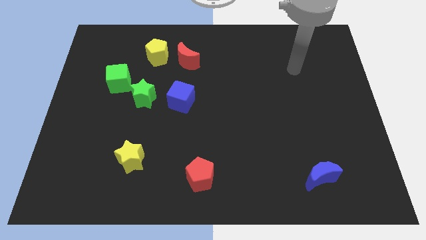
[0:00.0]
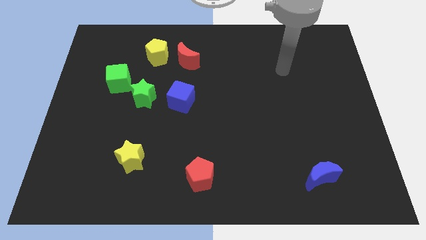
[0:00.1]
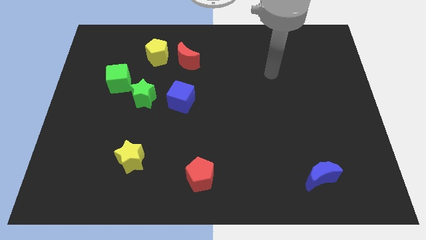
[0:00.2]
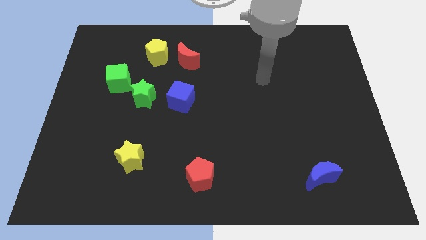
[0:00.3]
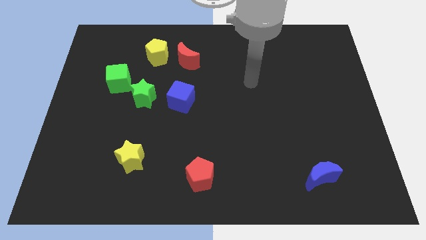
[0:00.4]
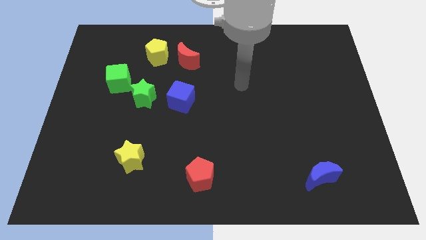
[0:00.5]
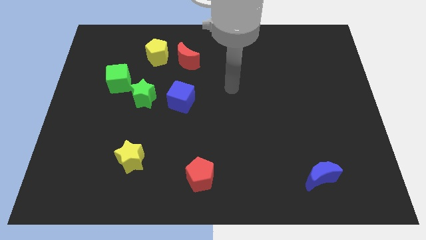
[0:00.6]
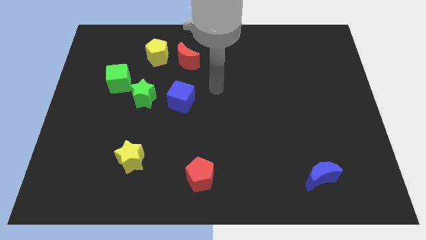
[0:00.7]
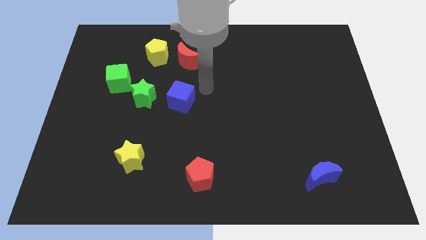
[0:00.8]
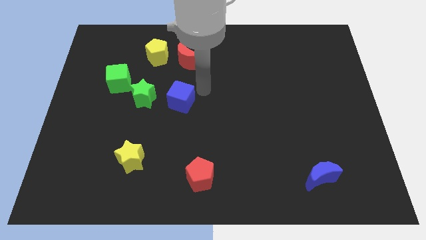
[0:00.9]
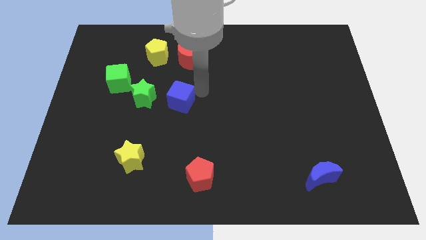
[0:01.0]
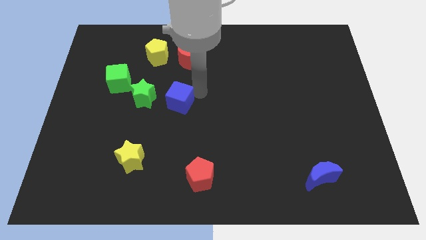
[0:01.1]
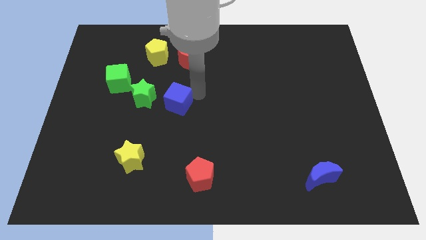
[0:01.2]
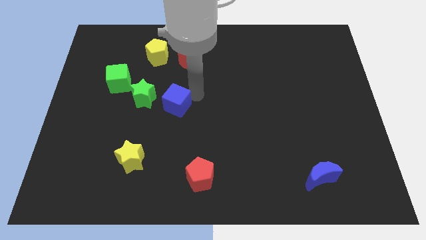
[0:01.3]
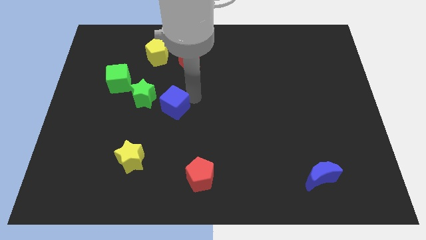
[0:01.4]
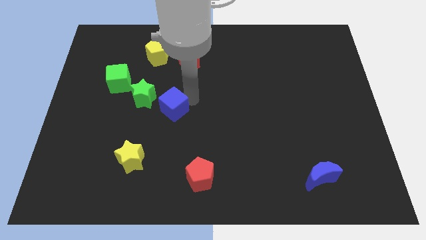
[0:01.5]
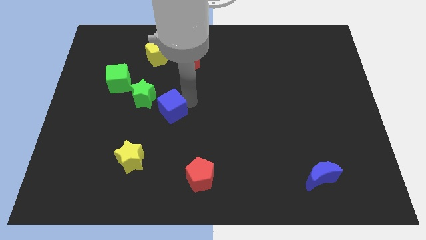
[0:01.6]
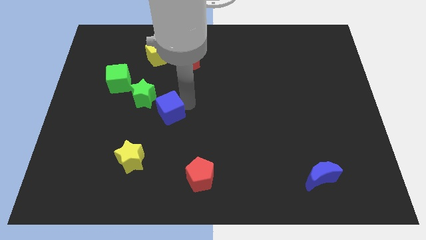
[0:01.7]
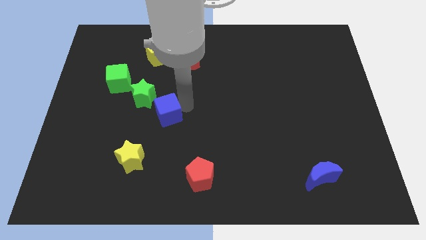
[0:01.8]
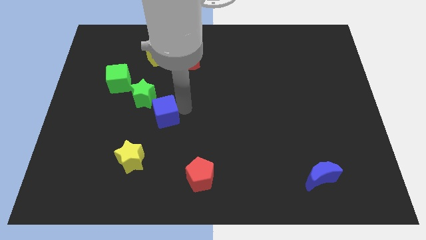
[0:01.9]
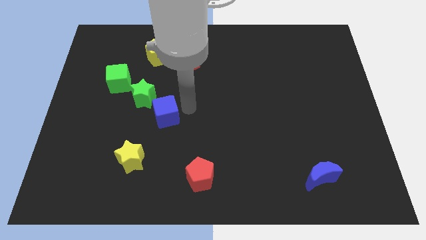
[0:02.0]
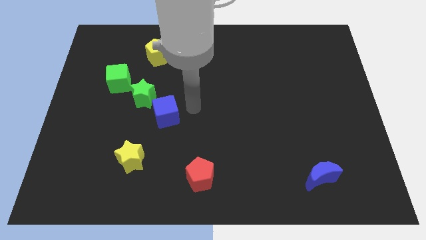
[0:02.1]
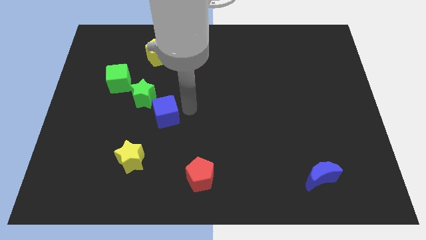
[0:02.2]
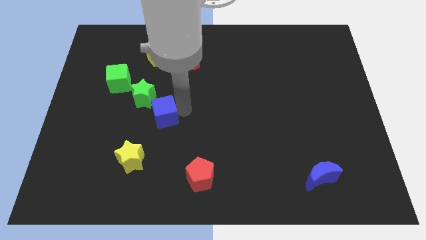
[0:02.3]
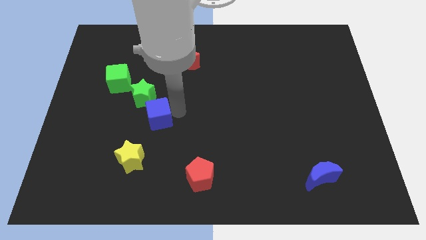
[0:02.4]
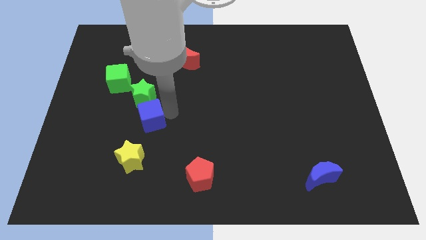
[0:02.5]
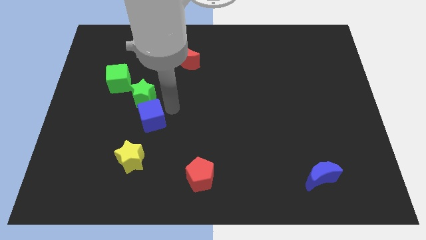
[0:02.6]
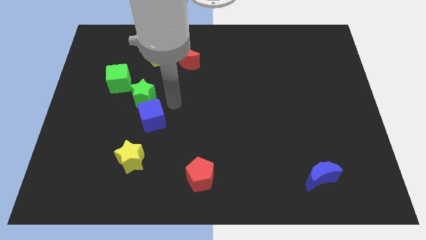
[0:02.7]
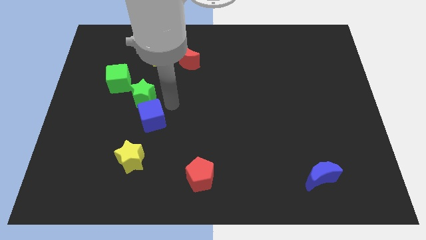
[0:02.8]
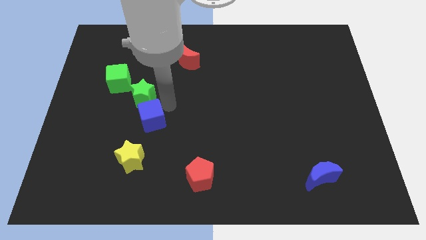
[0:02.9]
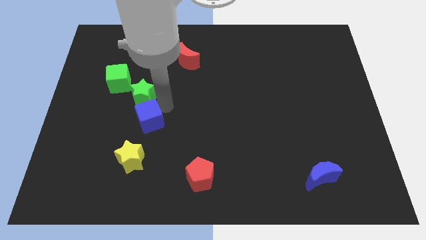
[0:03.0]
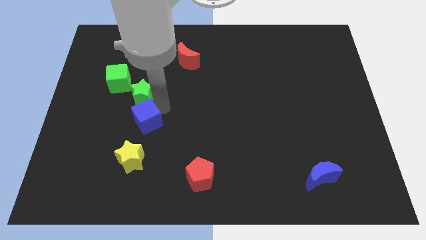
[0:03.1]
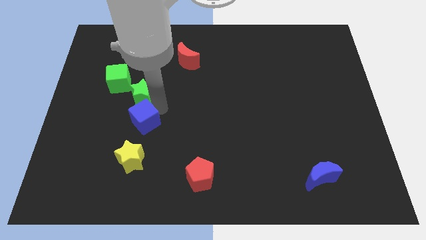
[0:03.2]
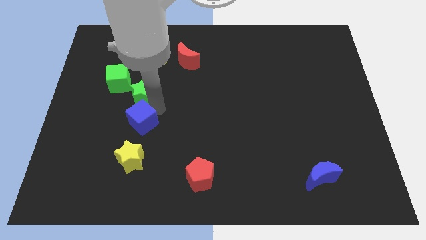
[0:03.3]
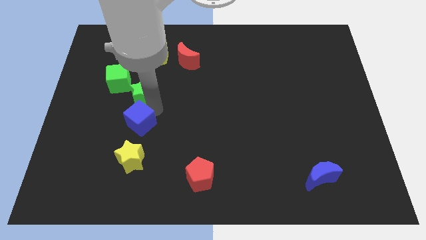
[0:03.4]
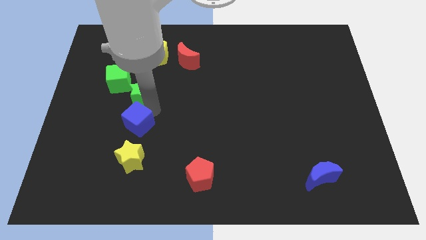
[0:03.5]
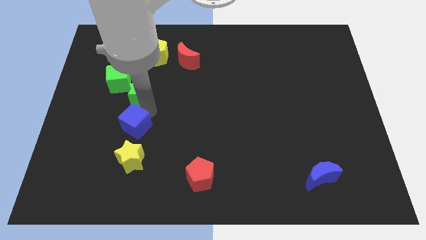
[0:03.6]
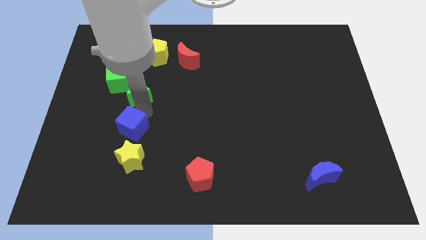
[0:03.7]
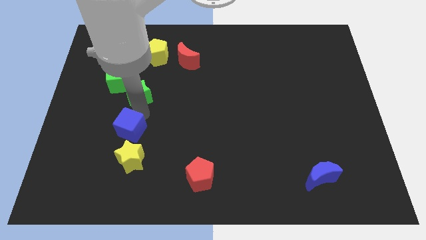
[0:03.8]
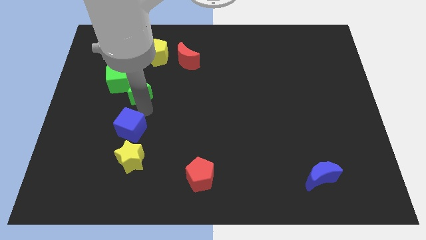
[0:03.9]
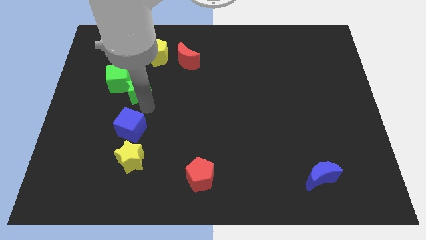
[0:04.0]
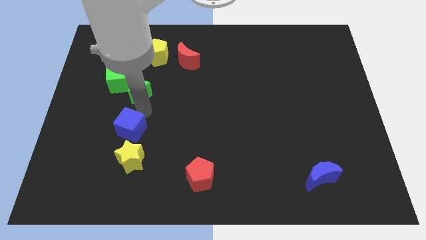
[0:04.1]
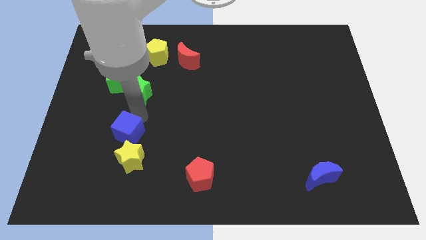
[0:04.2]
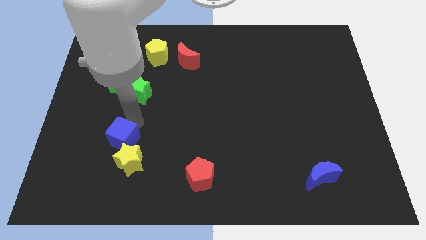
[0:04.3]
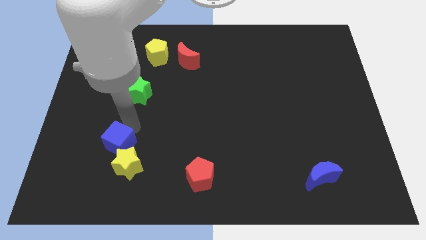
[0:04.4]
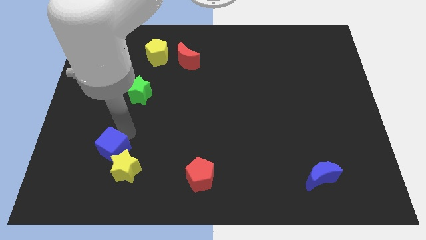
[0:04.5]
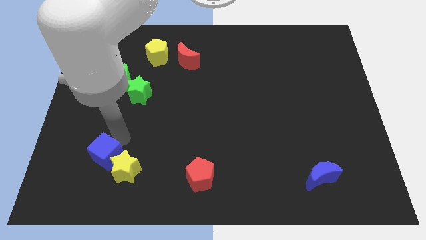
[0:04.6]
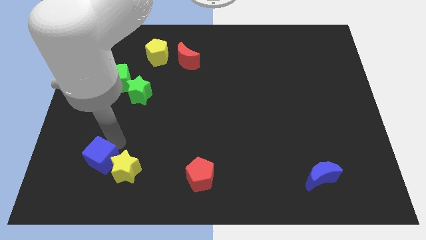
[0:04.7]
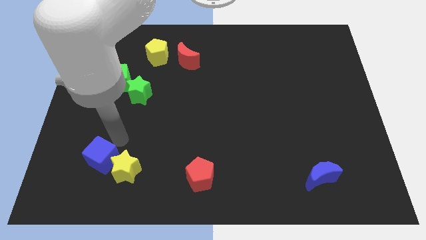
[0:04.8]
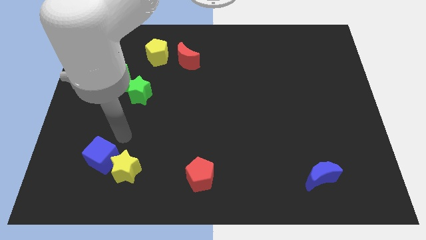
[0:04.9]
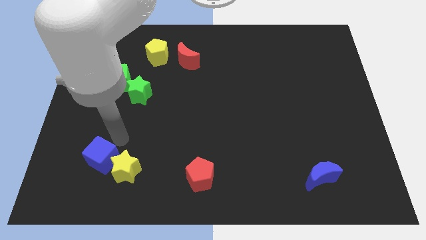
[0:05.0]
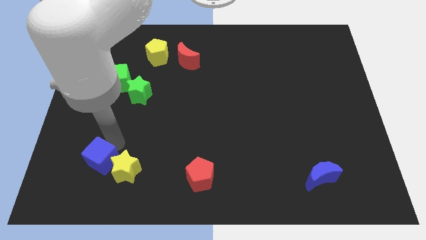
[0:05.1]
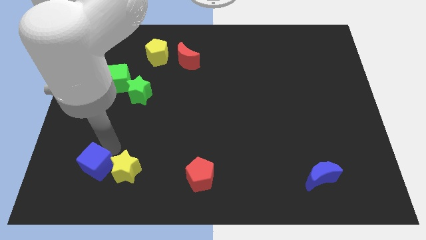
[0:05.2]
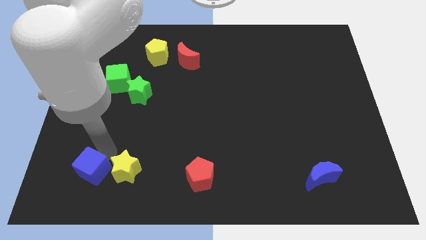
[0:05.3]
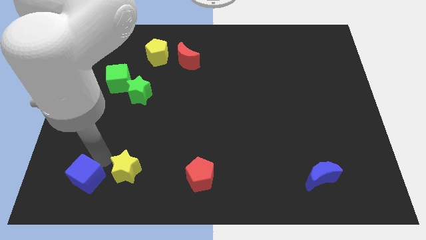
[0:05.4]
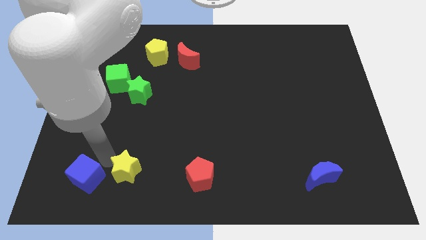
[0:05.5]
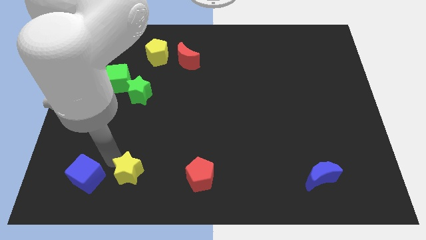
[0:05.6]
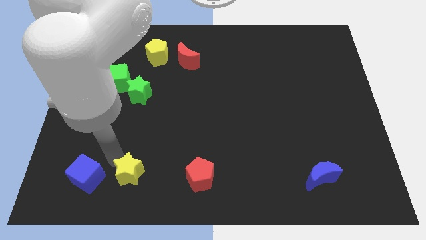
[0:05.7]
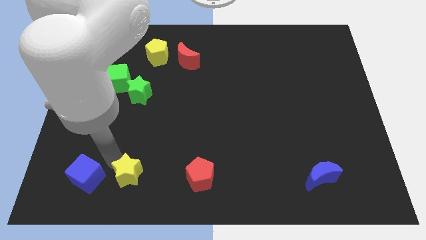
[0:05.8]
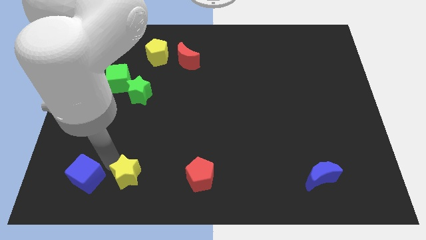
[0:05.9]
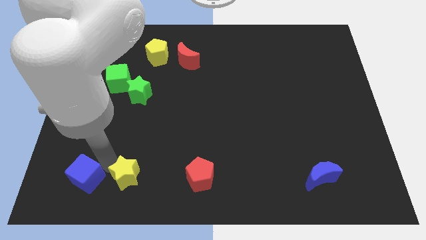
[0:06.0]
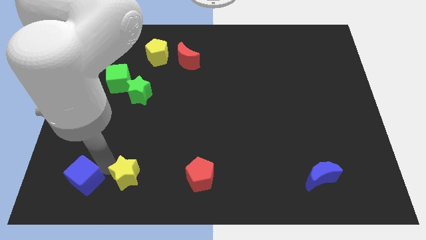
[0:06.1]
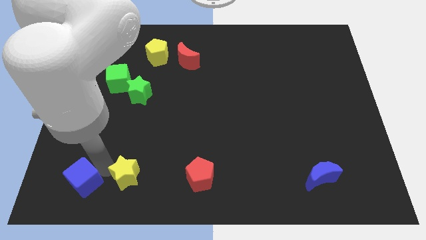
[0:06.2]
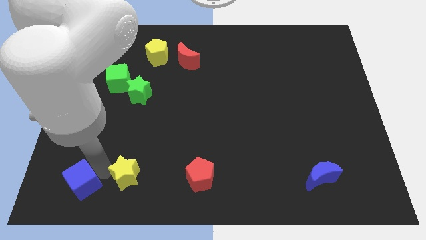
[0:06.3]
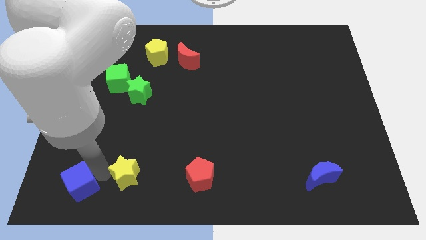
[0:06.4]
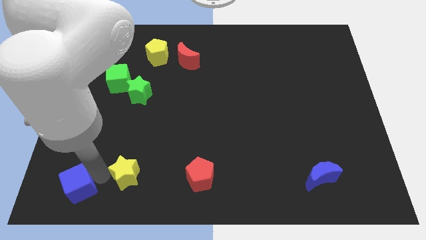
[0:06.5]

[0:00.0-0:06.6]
move the blue cube to the bottom left corner
